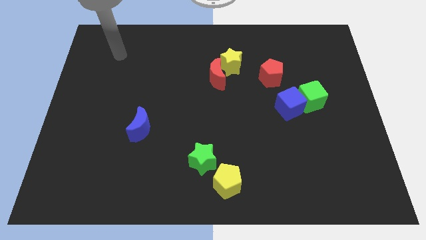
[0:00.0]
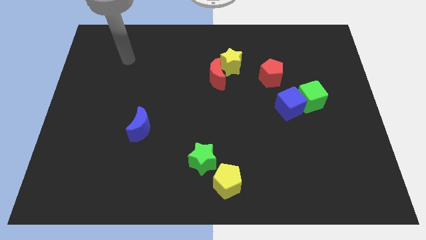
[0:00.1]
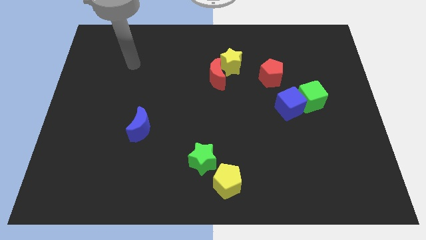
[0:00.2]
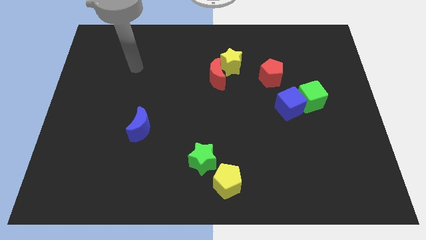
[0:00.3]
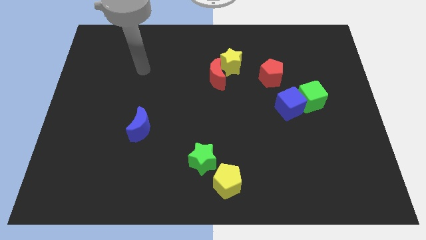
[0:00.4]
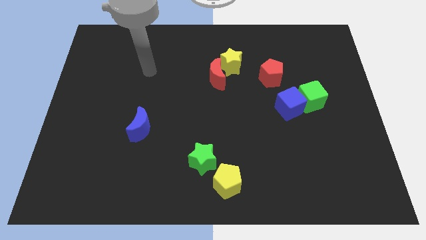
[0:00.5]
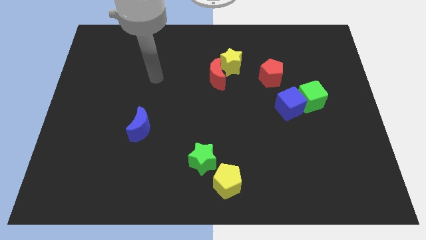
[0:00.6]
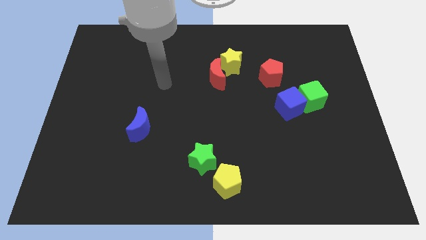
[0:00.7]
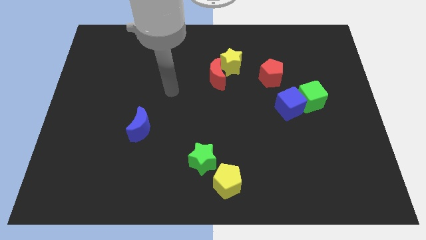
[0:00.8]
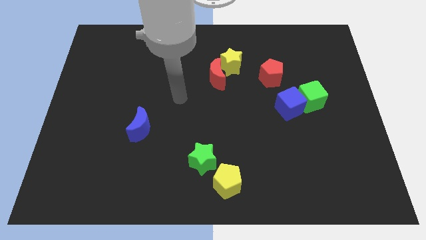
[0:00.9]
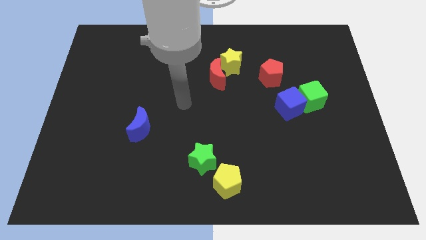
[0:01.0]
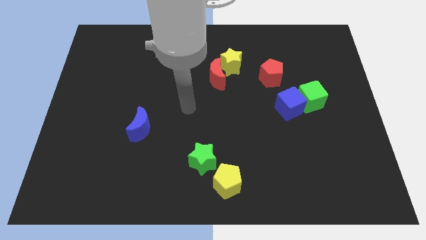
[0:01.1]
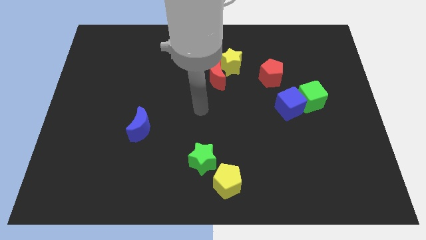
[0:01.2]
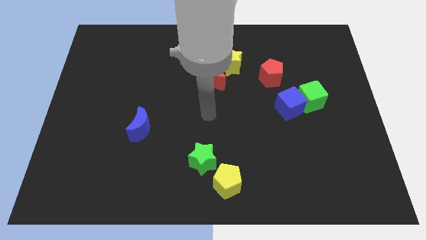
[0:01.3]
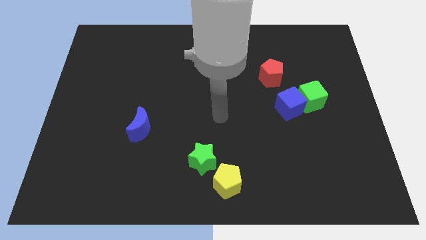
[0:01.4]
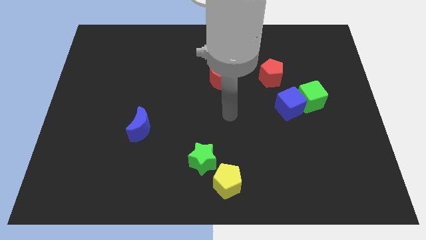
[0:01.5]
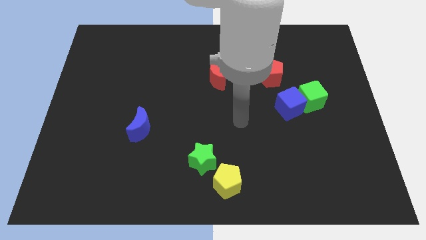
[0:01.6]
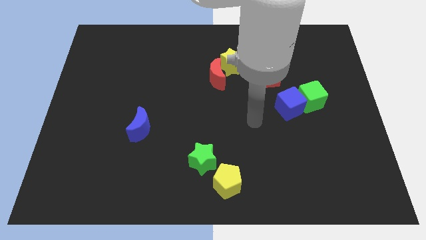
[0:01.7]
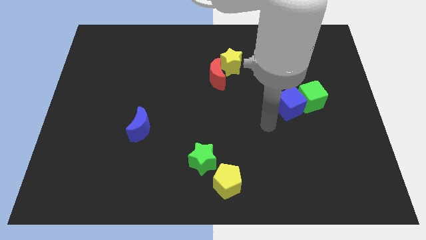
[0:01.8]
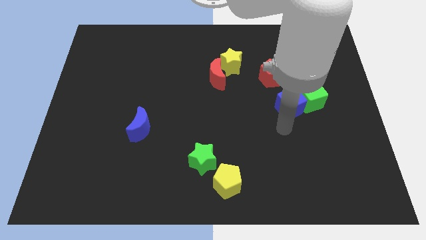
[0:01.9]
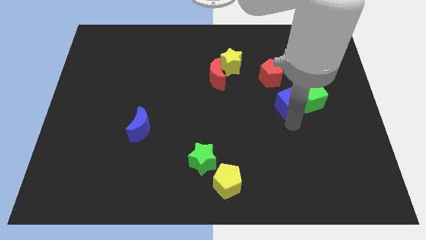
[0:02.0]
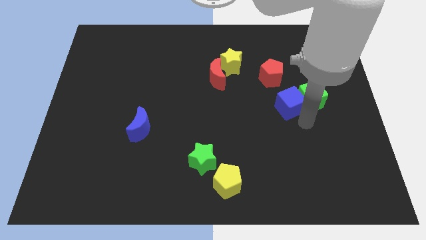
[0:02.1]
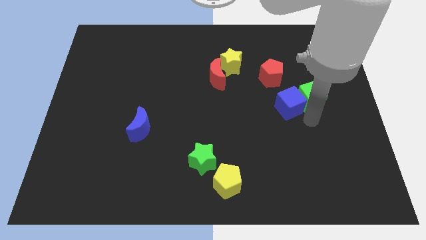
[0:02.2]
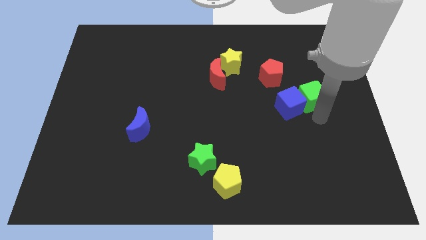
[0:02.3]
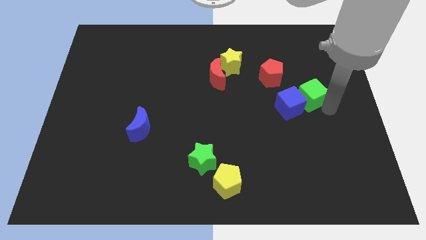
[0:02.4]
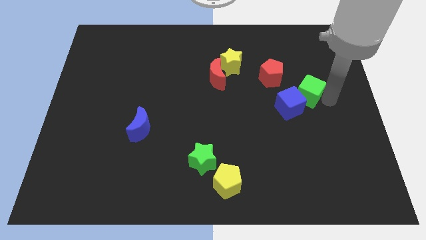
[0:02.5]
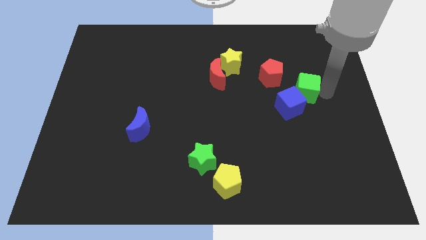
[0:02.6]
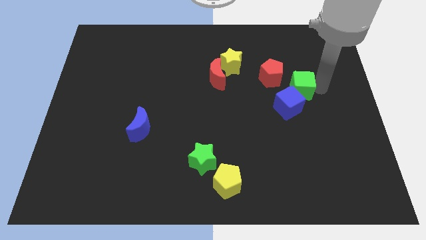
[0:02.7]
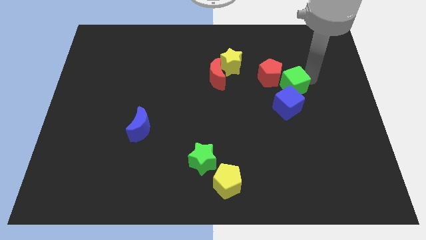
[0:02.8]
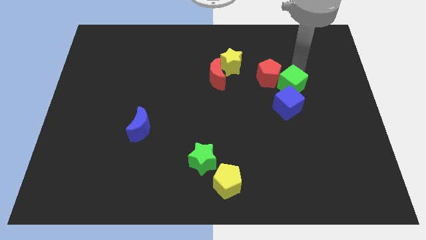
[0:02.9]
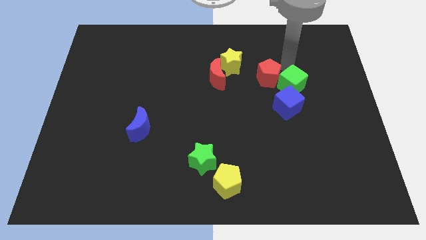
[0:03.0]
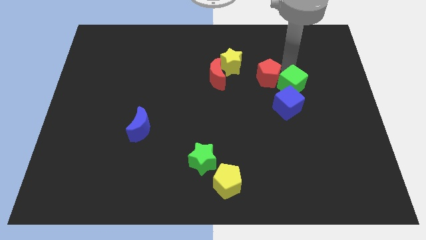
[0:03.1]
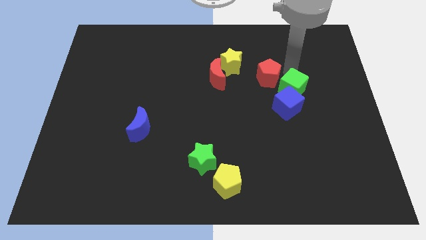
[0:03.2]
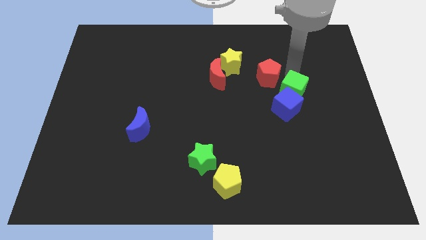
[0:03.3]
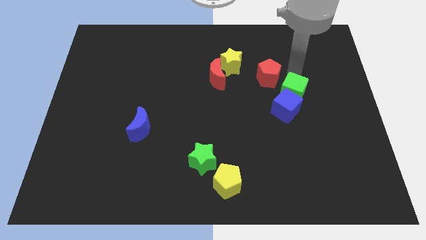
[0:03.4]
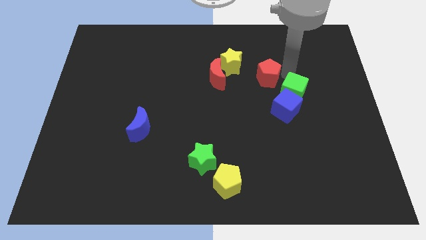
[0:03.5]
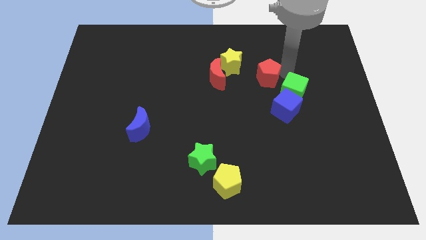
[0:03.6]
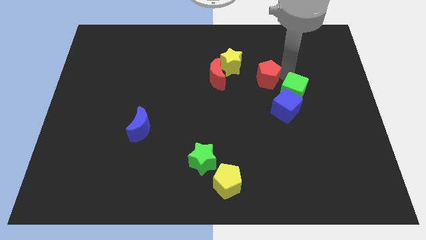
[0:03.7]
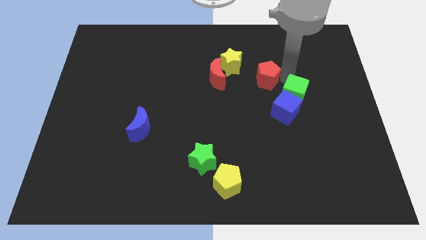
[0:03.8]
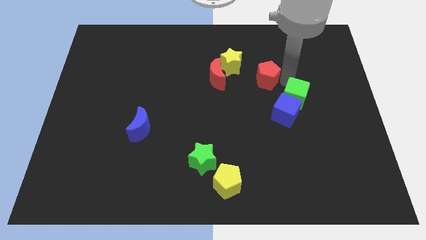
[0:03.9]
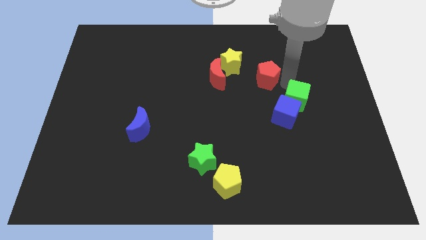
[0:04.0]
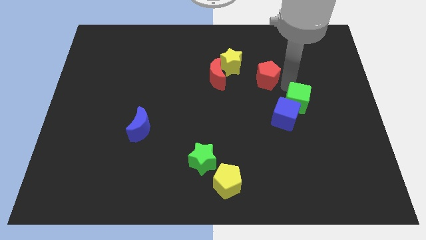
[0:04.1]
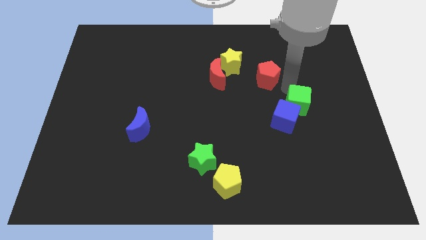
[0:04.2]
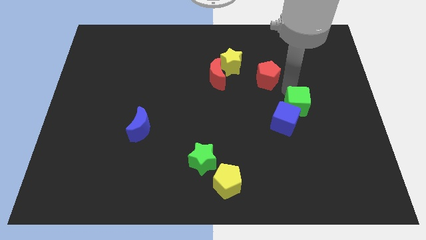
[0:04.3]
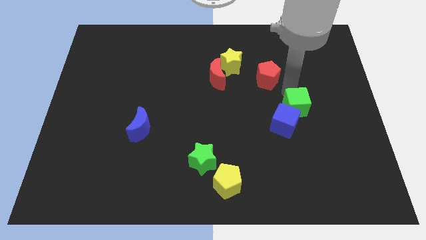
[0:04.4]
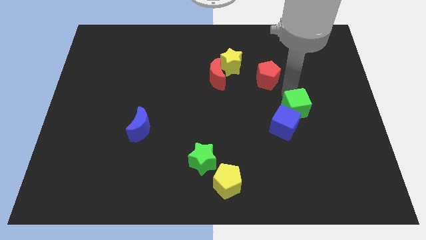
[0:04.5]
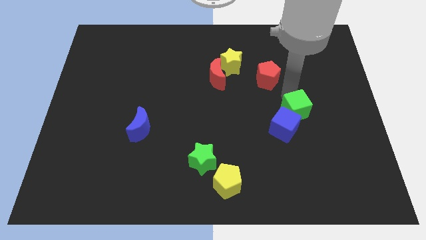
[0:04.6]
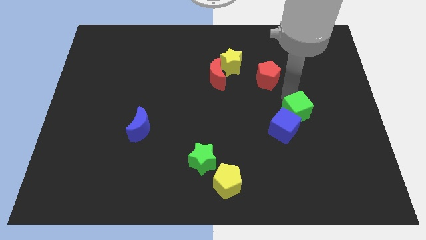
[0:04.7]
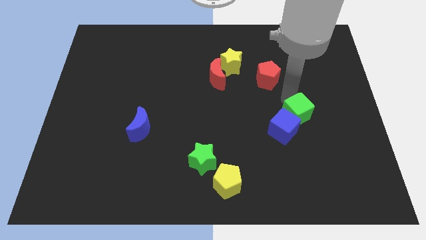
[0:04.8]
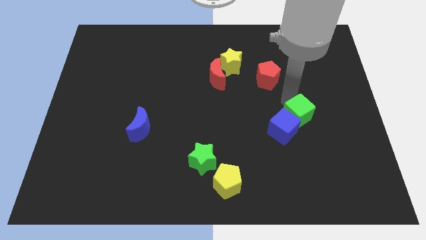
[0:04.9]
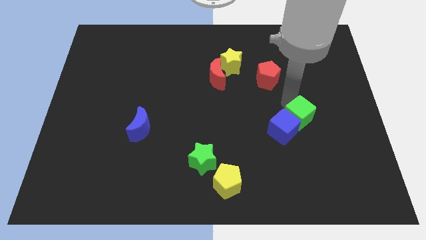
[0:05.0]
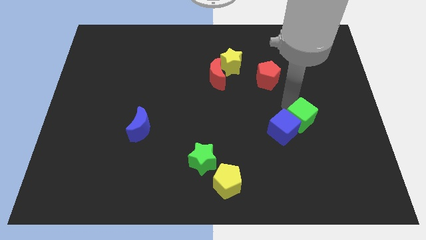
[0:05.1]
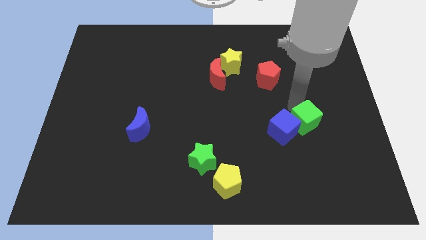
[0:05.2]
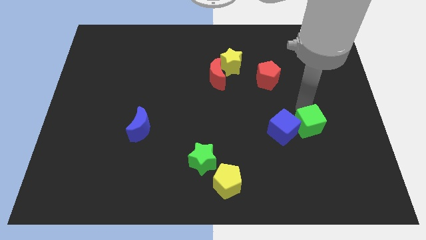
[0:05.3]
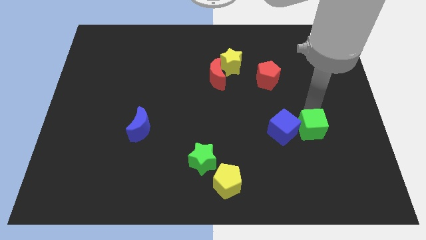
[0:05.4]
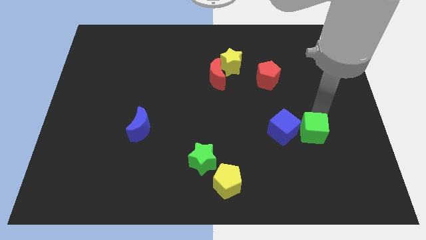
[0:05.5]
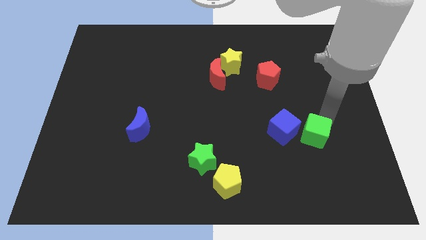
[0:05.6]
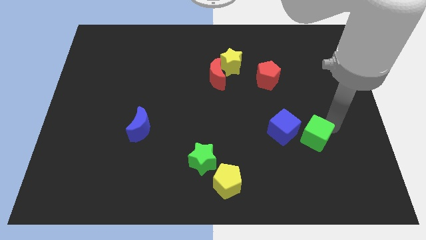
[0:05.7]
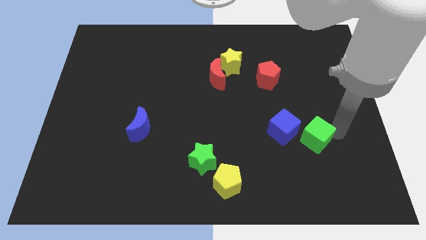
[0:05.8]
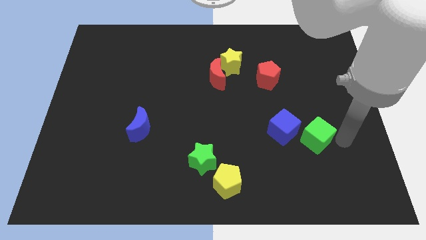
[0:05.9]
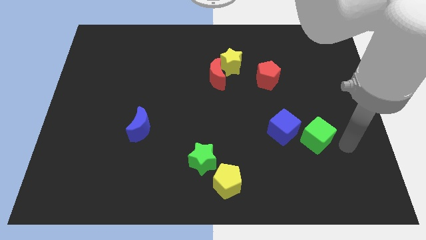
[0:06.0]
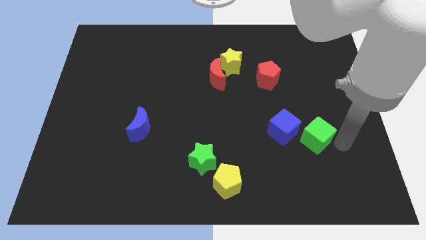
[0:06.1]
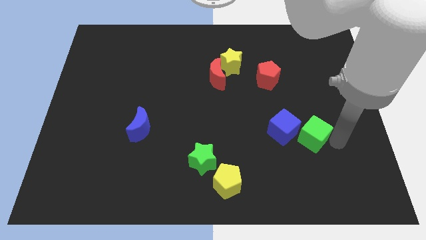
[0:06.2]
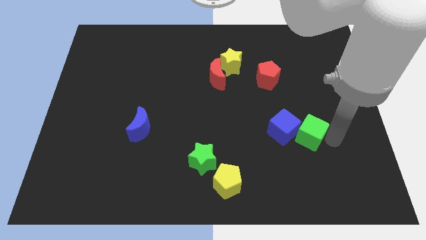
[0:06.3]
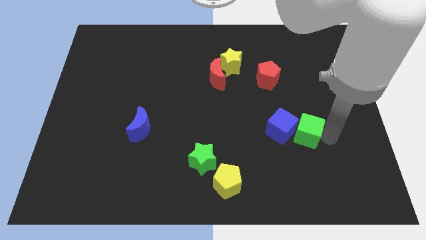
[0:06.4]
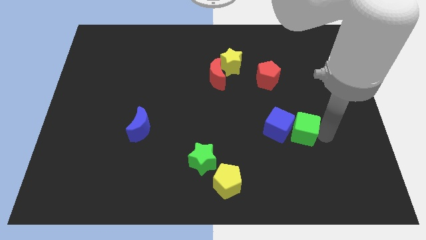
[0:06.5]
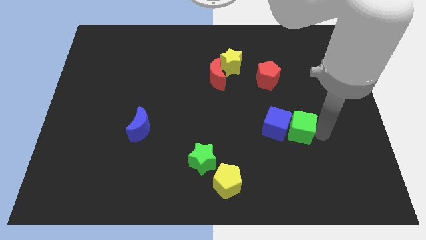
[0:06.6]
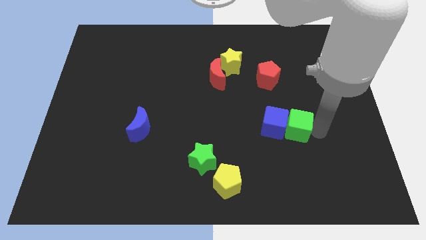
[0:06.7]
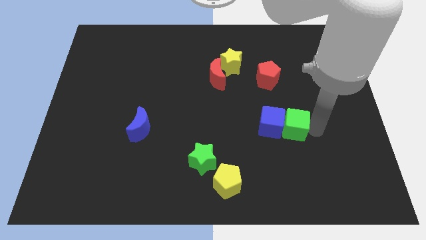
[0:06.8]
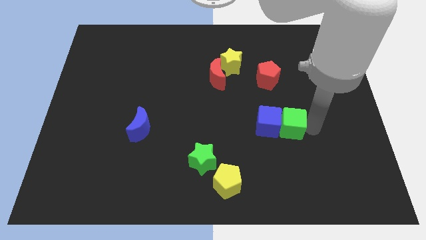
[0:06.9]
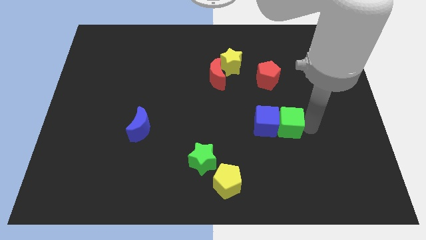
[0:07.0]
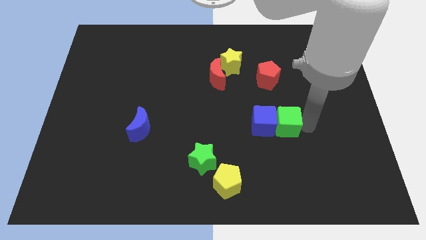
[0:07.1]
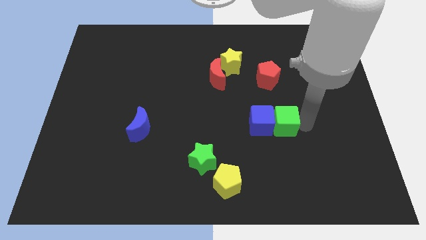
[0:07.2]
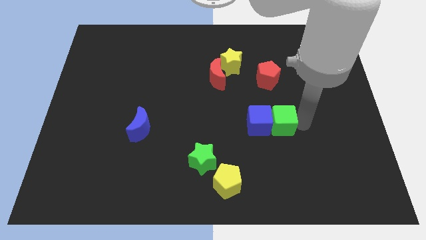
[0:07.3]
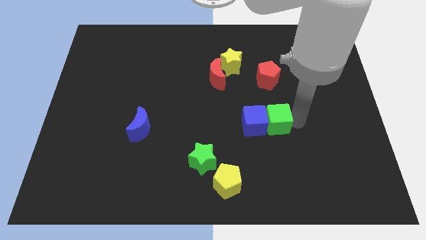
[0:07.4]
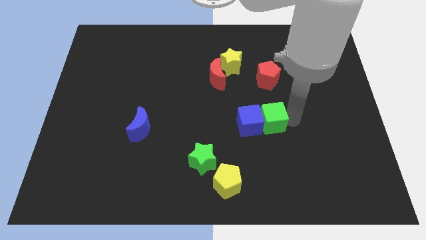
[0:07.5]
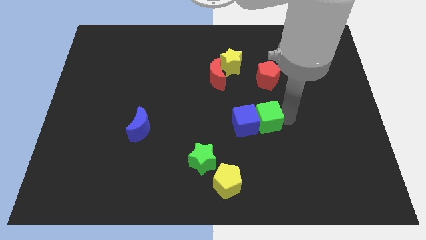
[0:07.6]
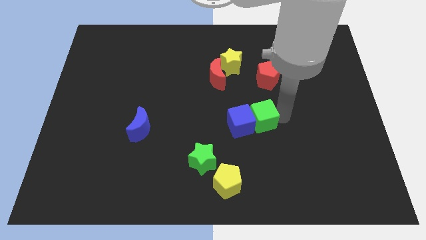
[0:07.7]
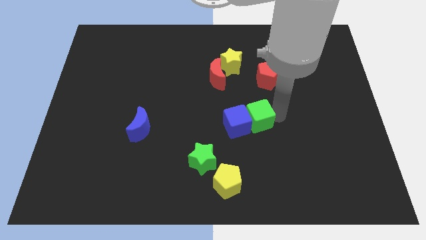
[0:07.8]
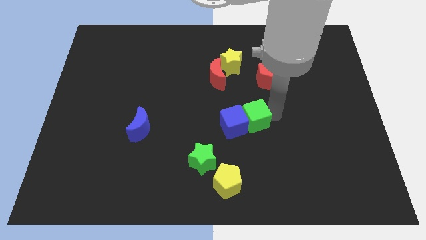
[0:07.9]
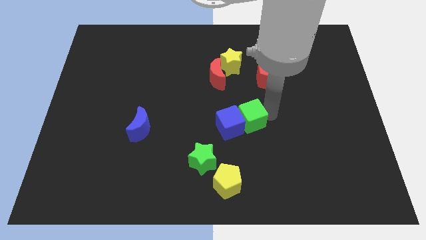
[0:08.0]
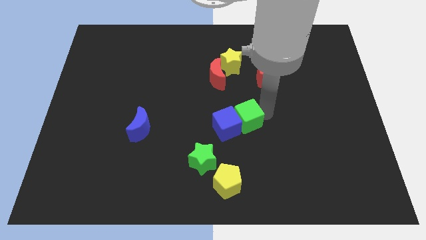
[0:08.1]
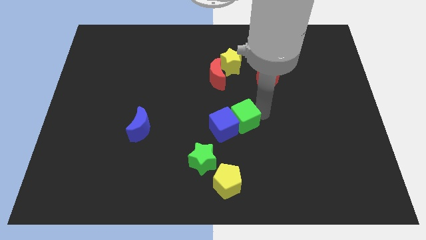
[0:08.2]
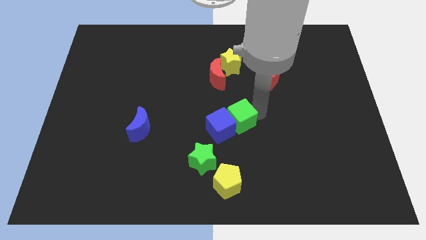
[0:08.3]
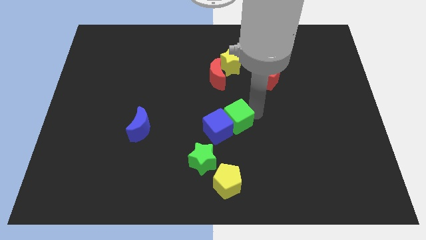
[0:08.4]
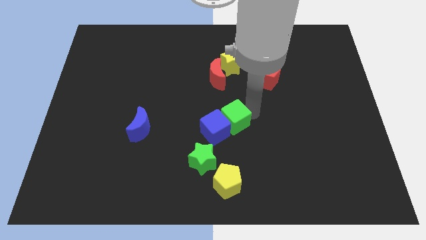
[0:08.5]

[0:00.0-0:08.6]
put the green cube to the top of the yellow pentagon
